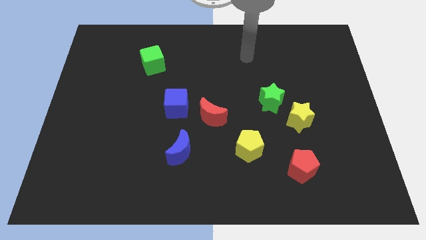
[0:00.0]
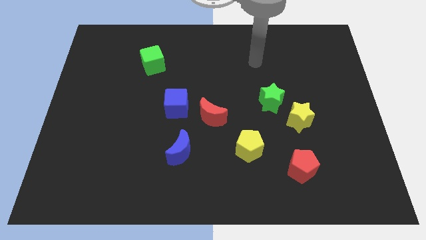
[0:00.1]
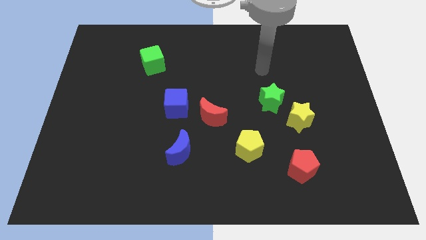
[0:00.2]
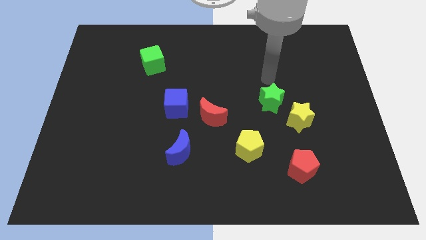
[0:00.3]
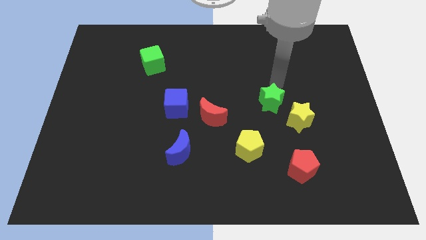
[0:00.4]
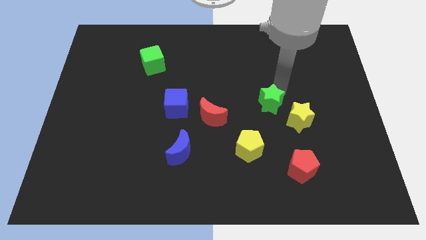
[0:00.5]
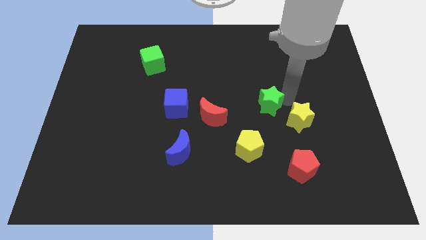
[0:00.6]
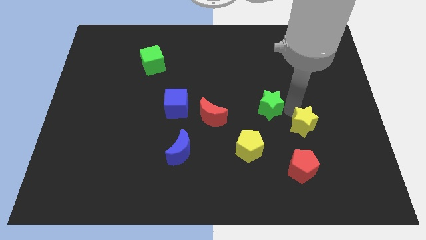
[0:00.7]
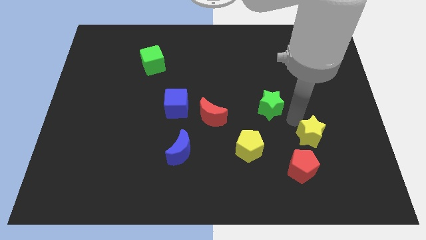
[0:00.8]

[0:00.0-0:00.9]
move the green star away from the yellow star

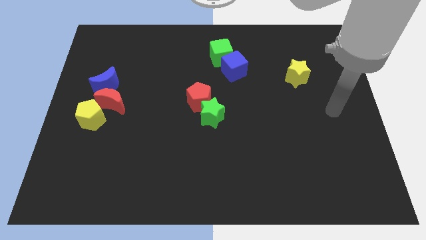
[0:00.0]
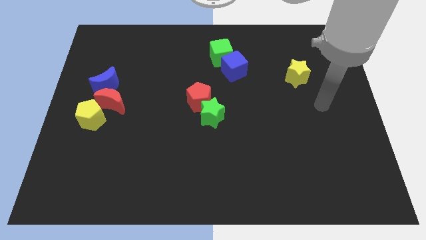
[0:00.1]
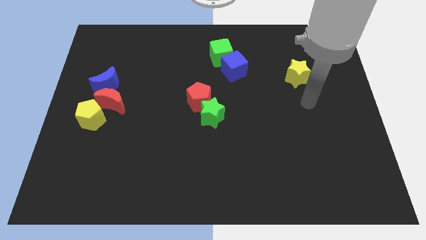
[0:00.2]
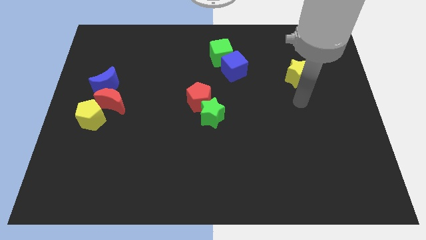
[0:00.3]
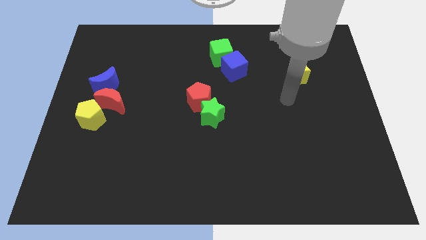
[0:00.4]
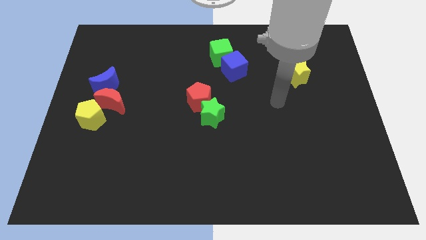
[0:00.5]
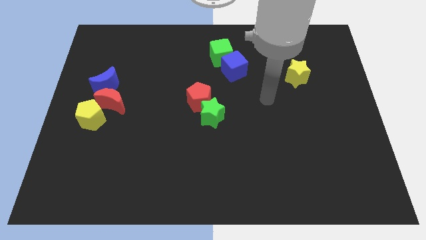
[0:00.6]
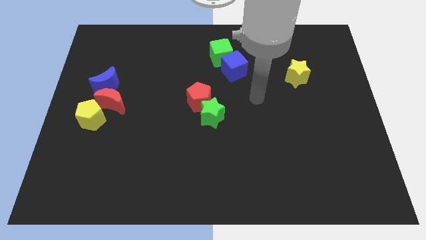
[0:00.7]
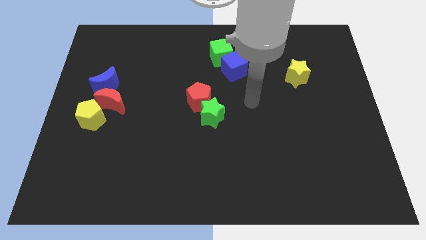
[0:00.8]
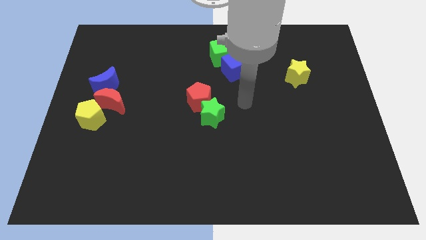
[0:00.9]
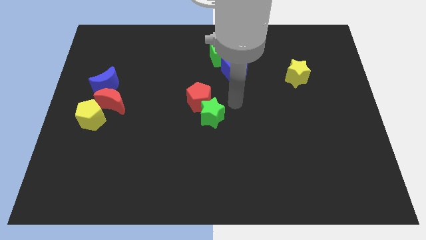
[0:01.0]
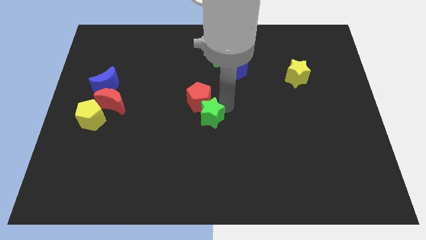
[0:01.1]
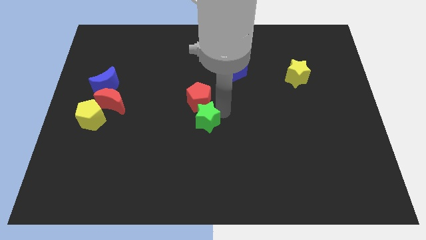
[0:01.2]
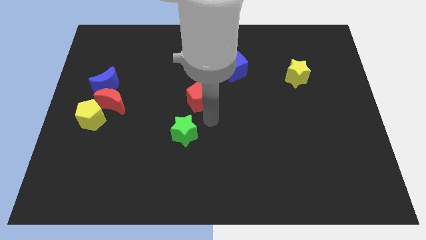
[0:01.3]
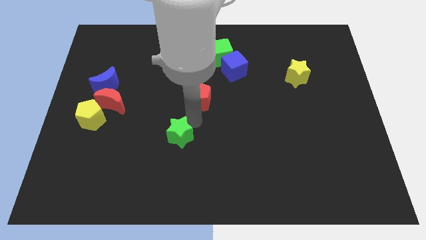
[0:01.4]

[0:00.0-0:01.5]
pull the red pentagon apart from the green star

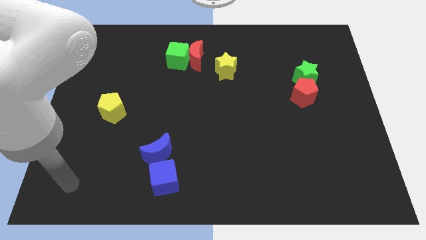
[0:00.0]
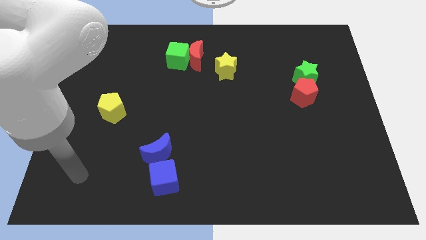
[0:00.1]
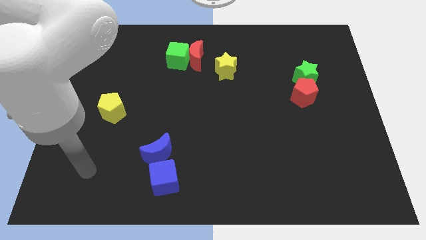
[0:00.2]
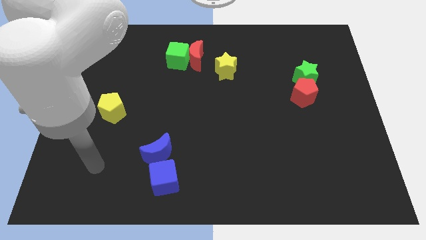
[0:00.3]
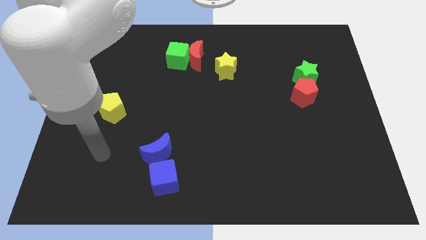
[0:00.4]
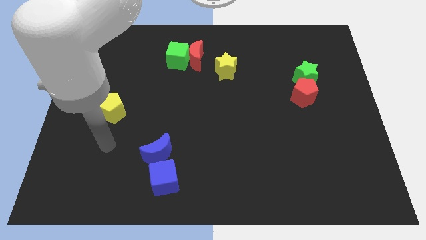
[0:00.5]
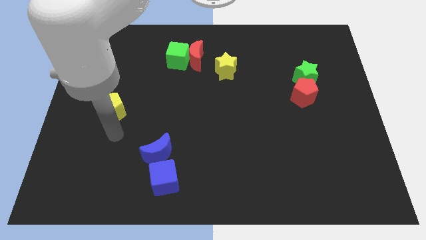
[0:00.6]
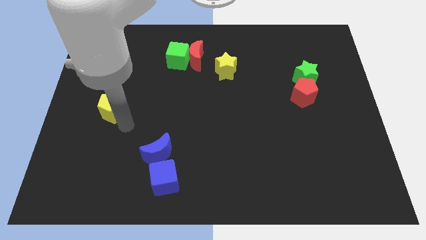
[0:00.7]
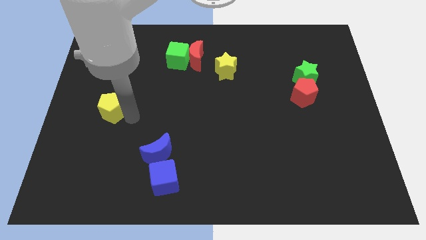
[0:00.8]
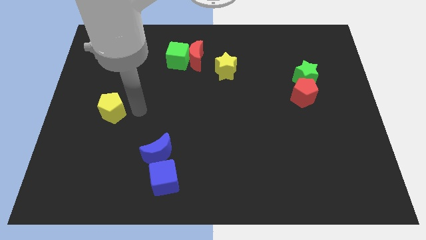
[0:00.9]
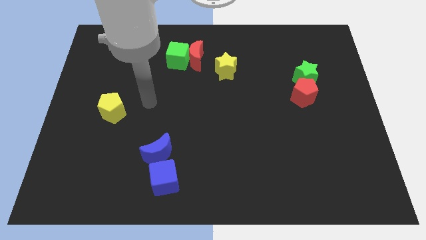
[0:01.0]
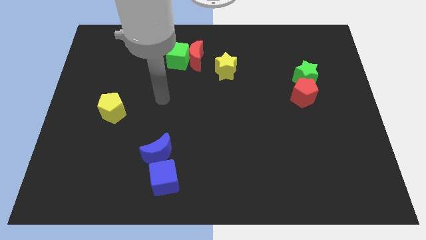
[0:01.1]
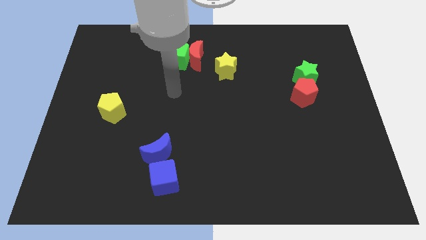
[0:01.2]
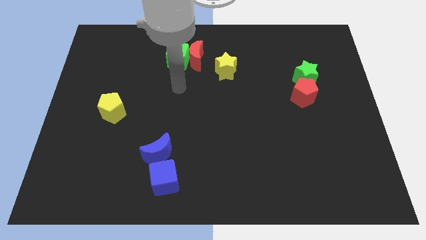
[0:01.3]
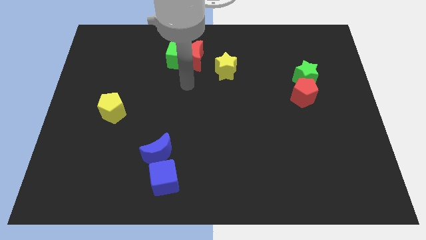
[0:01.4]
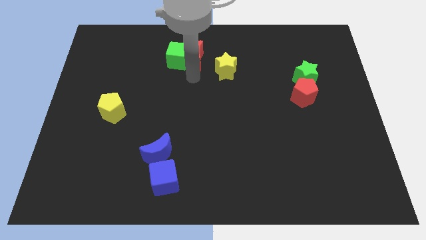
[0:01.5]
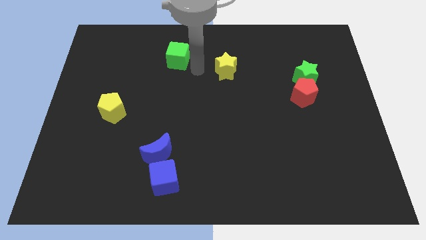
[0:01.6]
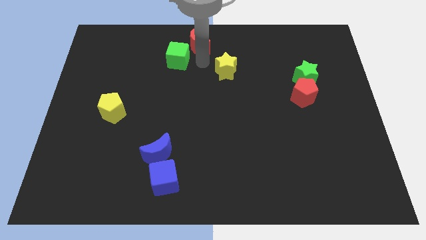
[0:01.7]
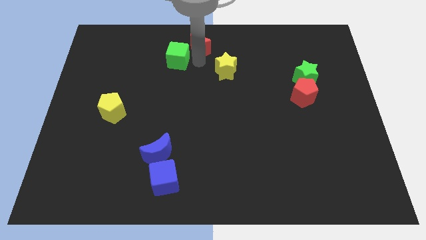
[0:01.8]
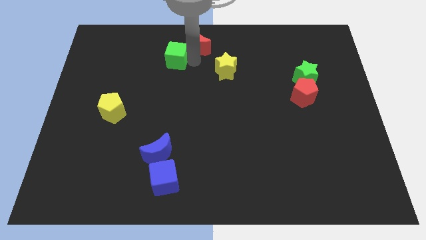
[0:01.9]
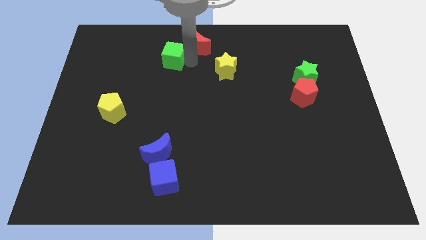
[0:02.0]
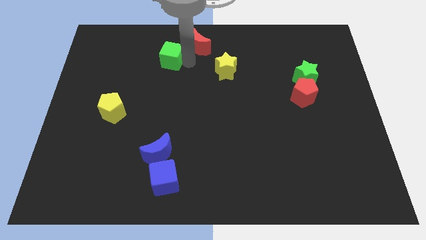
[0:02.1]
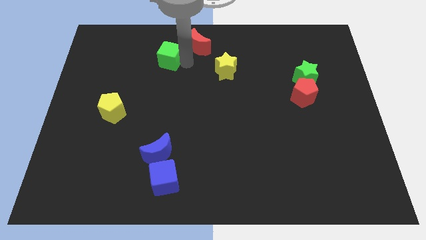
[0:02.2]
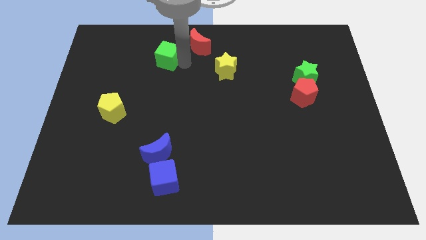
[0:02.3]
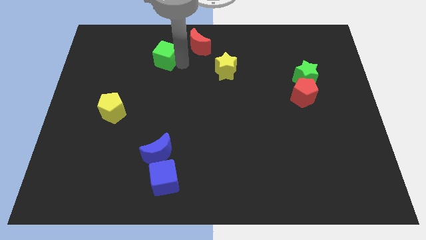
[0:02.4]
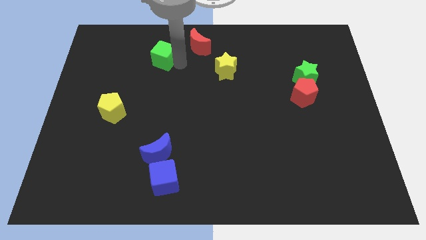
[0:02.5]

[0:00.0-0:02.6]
move the green cube away from the red moon

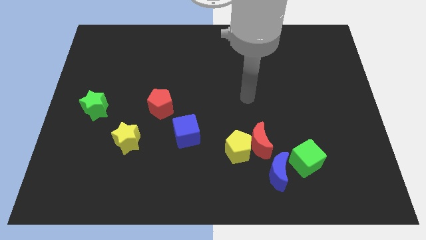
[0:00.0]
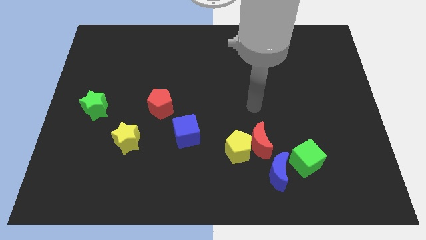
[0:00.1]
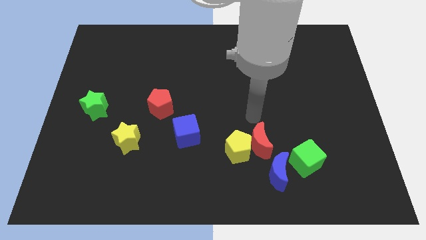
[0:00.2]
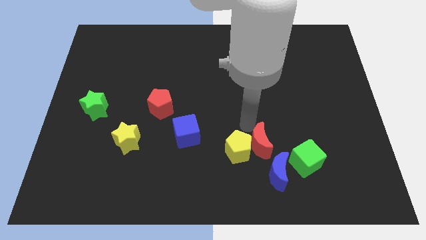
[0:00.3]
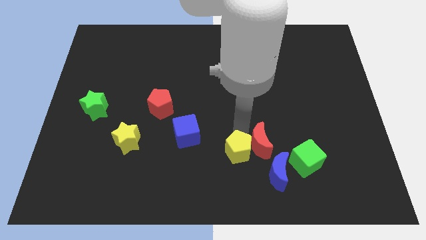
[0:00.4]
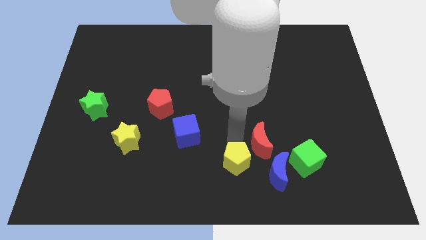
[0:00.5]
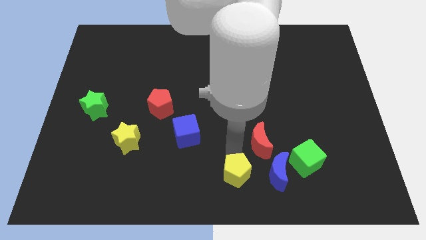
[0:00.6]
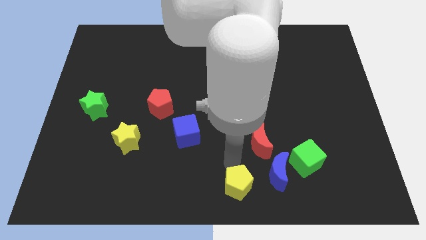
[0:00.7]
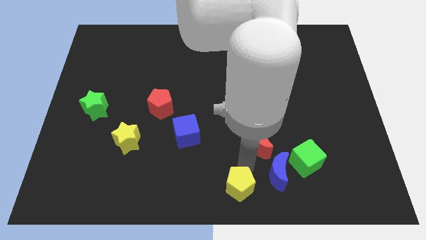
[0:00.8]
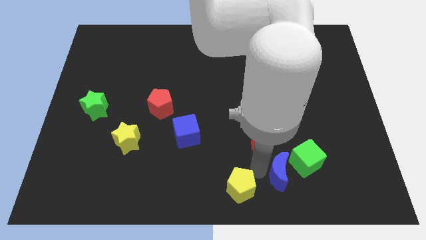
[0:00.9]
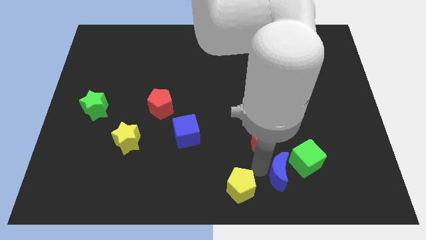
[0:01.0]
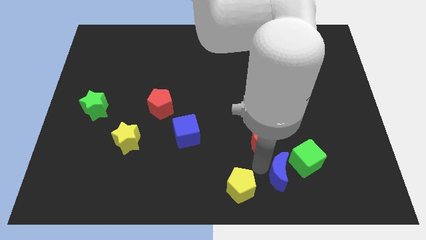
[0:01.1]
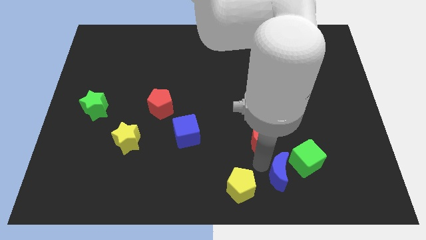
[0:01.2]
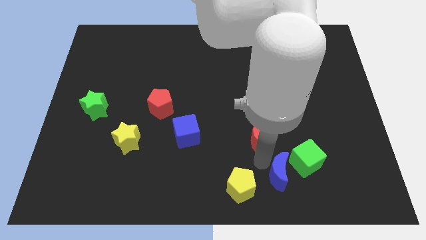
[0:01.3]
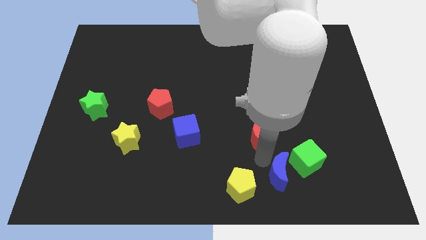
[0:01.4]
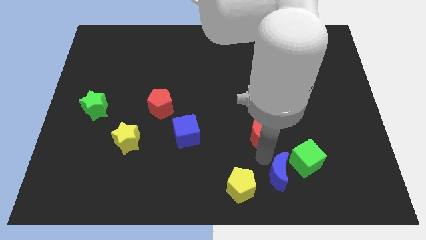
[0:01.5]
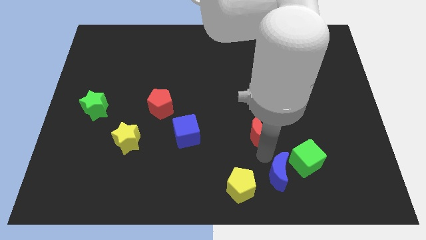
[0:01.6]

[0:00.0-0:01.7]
separate the red moon from the yellow pentagon and blue moon

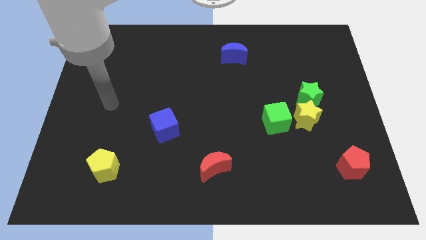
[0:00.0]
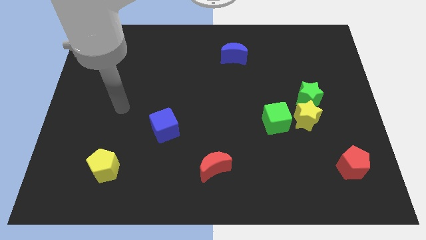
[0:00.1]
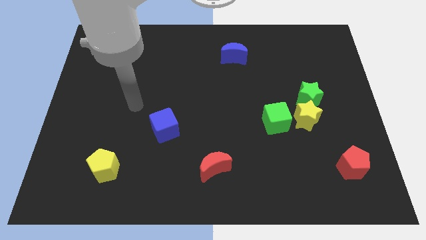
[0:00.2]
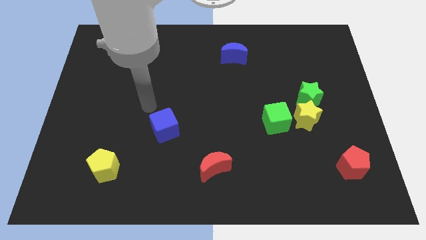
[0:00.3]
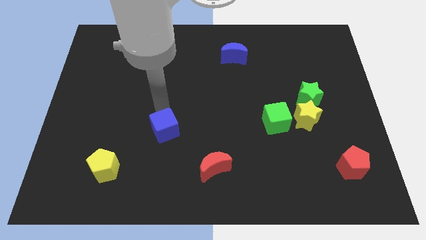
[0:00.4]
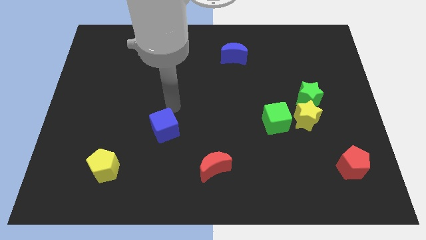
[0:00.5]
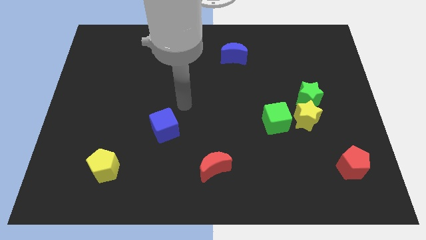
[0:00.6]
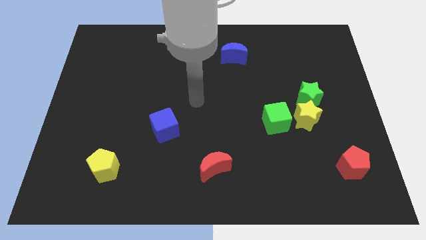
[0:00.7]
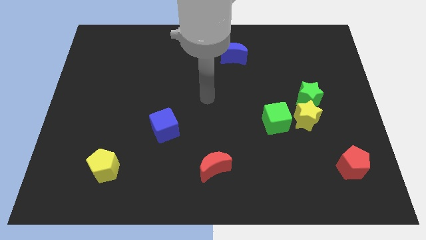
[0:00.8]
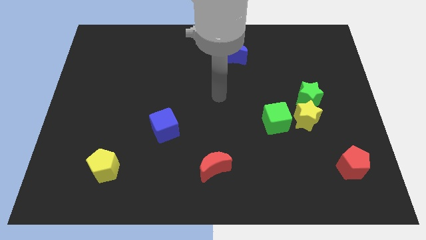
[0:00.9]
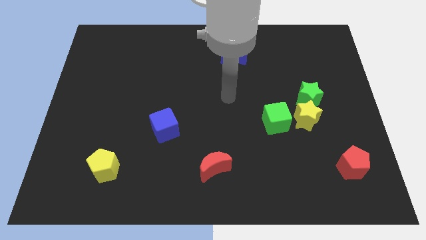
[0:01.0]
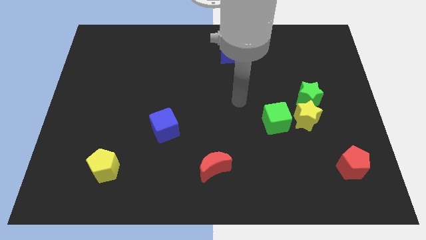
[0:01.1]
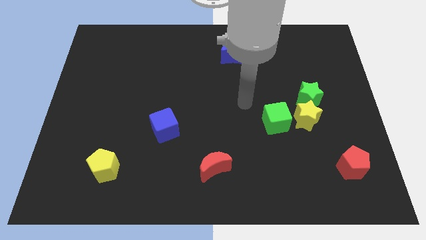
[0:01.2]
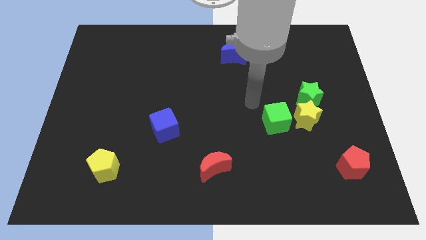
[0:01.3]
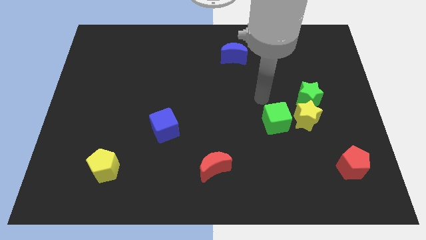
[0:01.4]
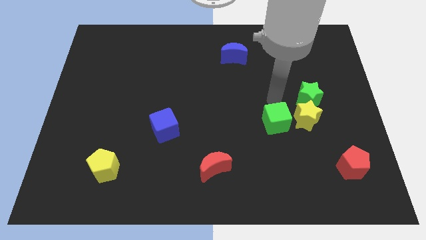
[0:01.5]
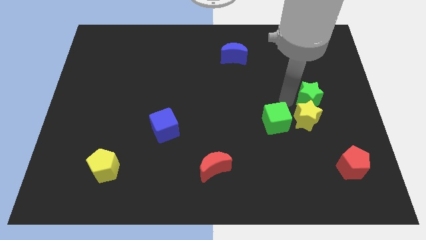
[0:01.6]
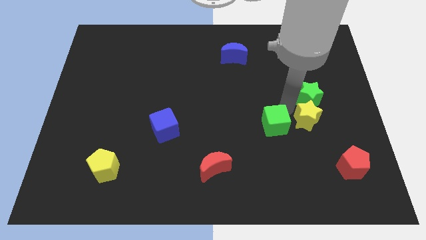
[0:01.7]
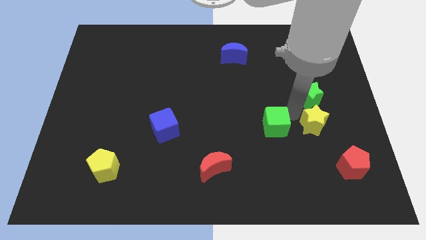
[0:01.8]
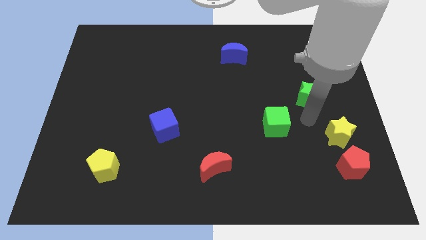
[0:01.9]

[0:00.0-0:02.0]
pull the green star apart from the yellow star

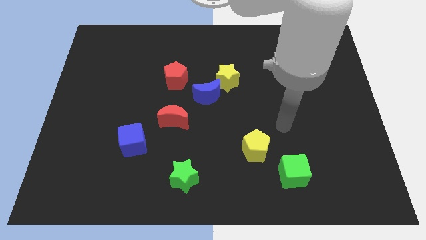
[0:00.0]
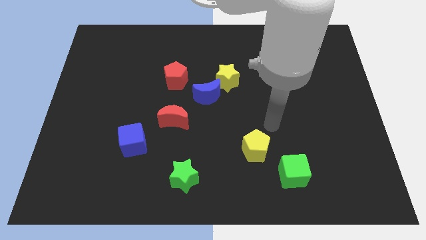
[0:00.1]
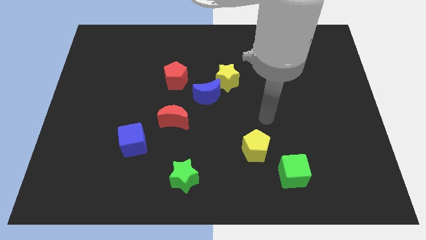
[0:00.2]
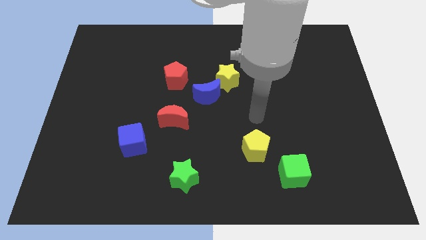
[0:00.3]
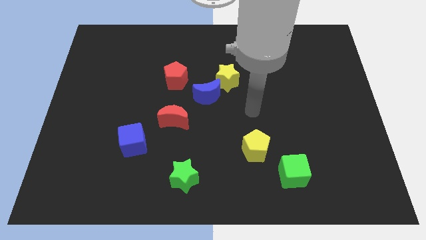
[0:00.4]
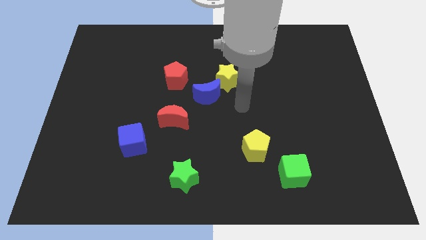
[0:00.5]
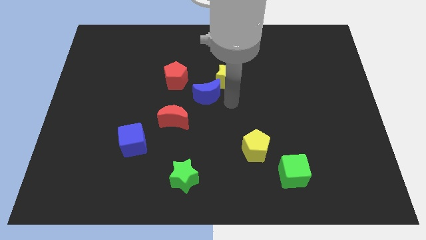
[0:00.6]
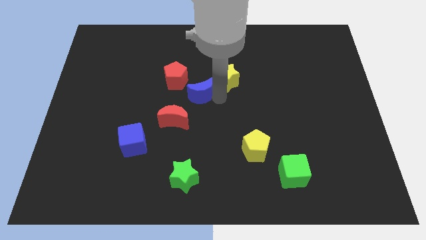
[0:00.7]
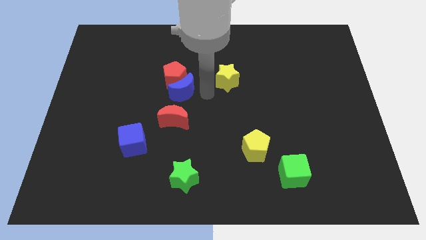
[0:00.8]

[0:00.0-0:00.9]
separate the yellow star from the blue moon
